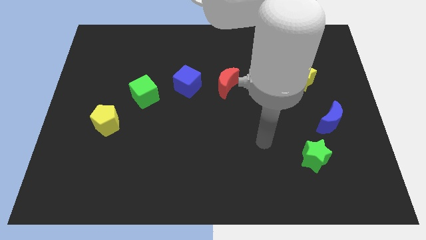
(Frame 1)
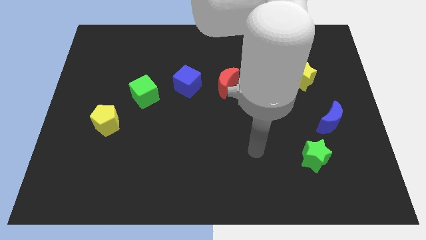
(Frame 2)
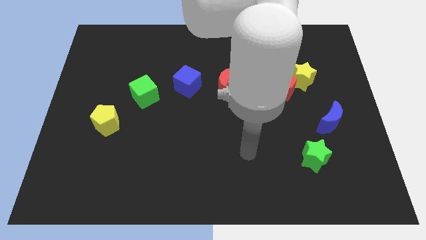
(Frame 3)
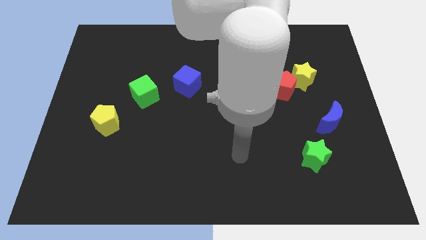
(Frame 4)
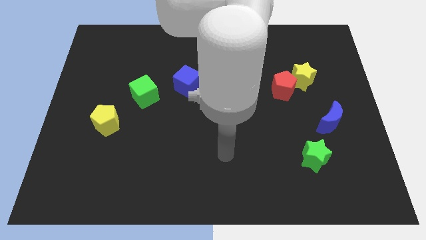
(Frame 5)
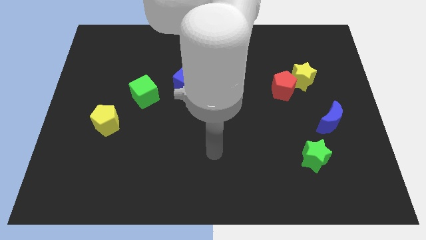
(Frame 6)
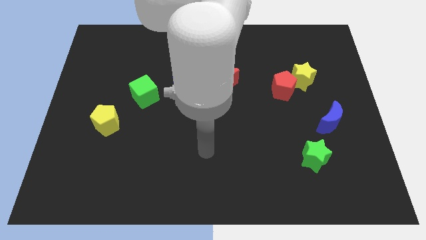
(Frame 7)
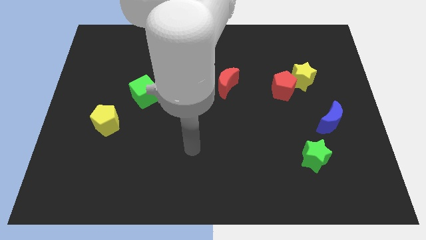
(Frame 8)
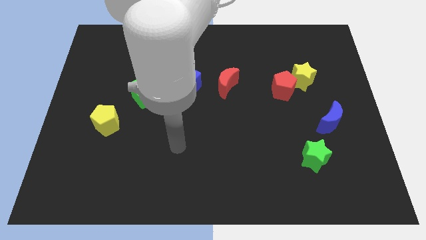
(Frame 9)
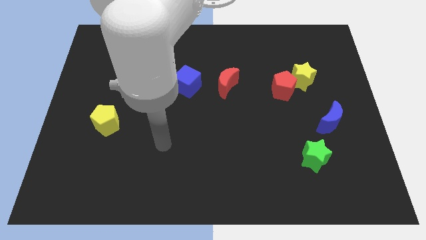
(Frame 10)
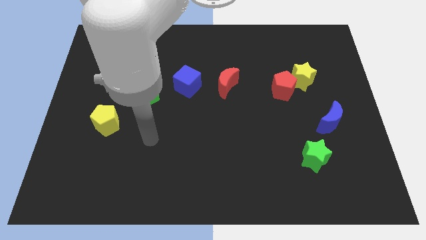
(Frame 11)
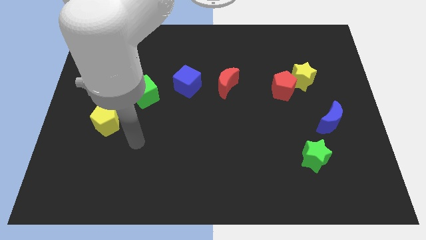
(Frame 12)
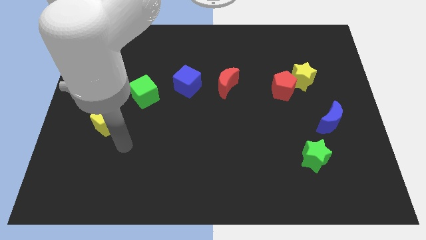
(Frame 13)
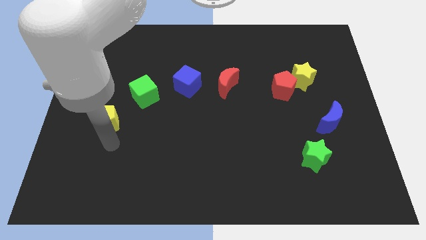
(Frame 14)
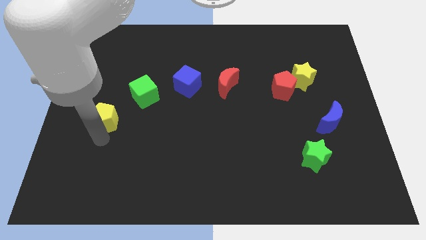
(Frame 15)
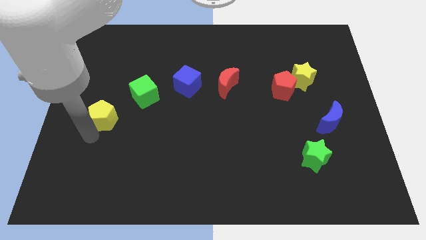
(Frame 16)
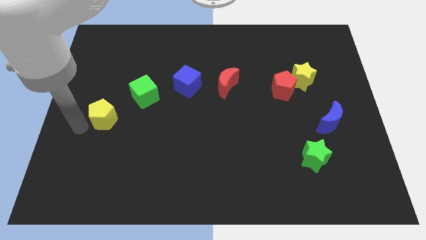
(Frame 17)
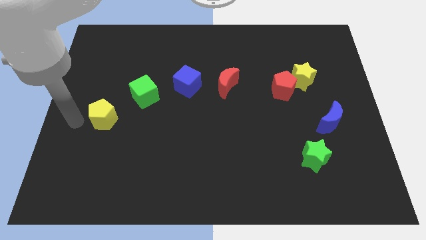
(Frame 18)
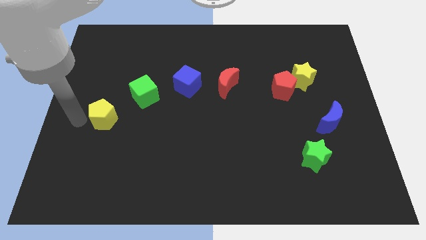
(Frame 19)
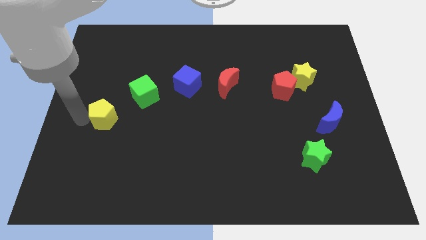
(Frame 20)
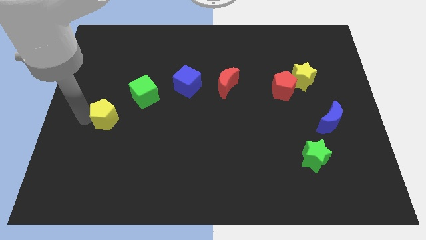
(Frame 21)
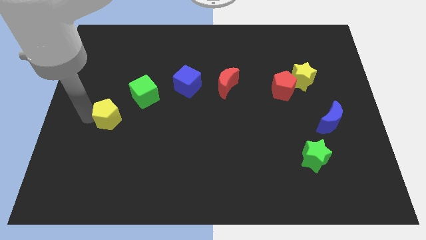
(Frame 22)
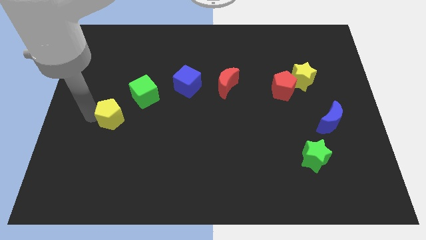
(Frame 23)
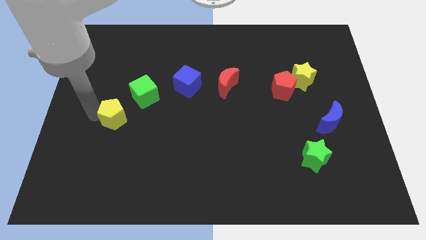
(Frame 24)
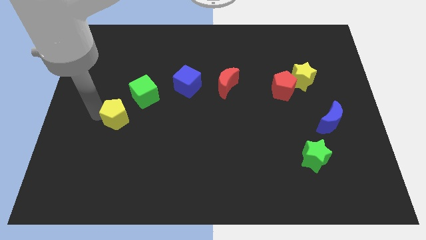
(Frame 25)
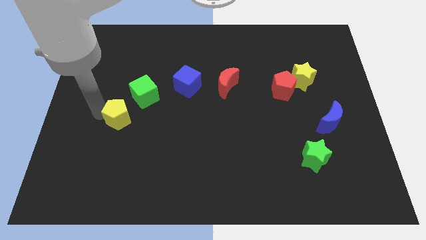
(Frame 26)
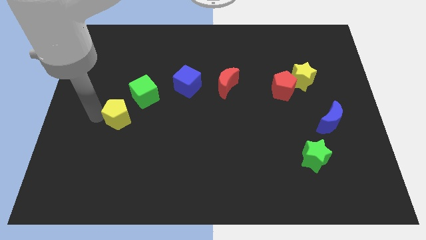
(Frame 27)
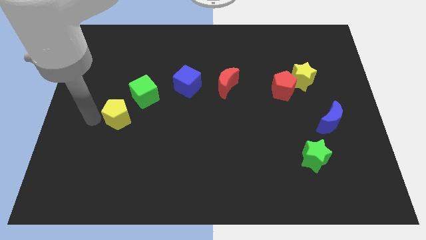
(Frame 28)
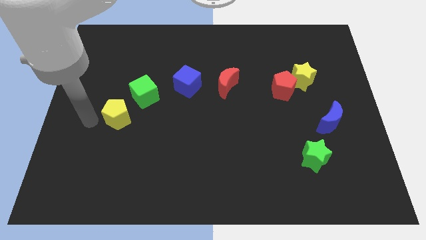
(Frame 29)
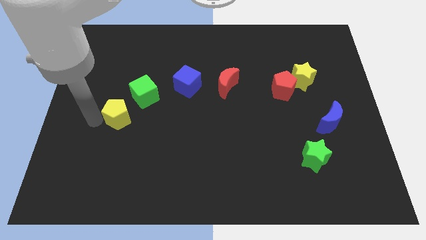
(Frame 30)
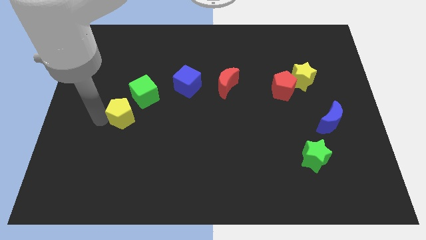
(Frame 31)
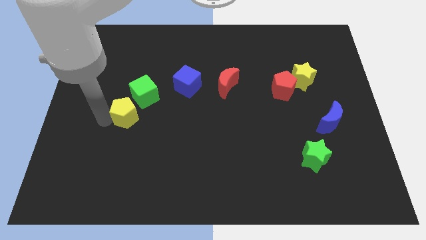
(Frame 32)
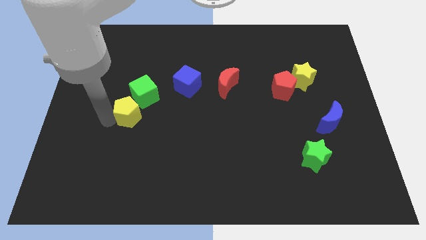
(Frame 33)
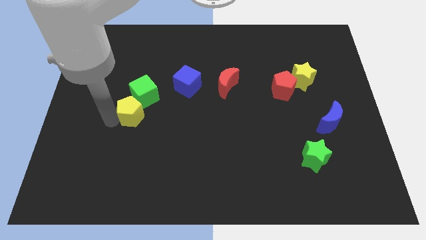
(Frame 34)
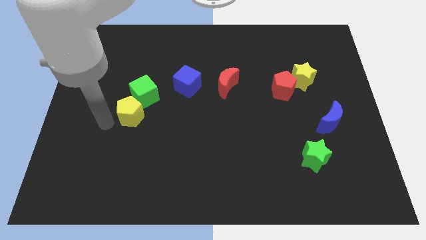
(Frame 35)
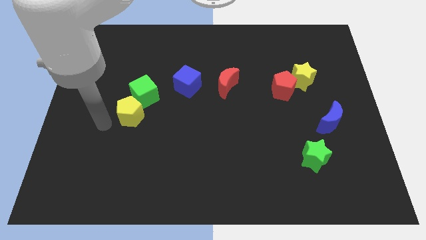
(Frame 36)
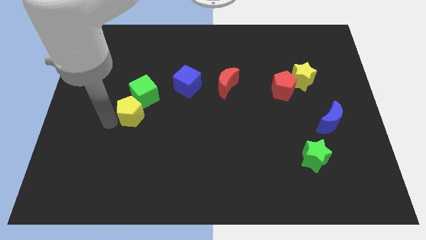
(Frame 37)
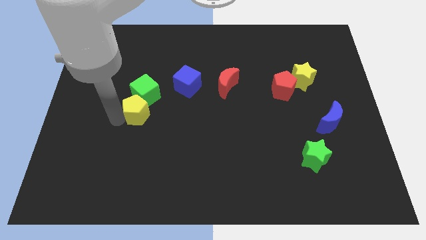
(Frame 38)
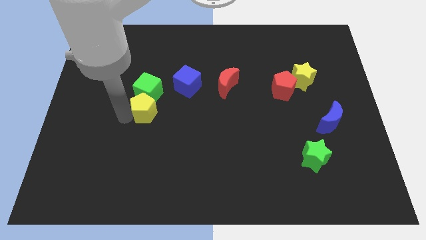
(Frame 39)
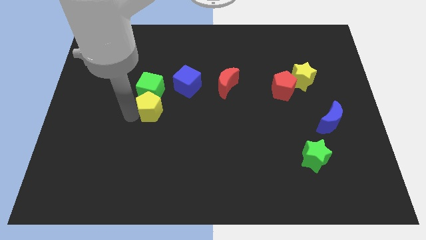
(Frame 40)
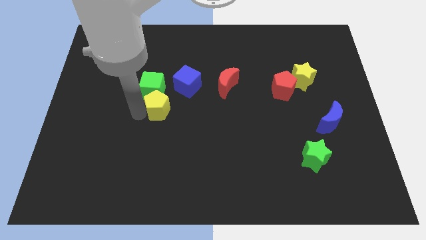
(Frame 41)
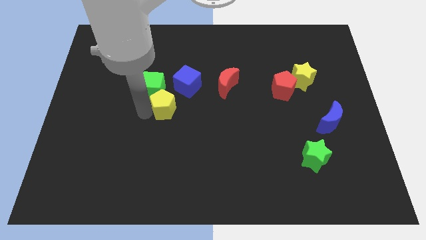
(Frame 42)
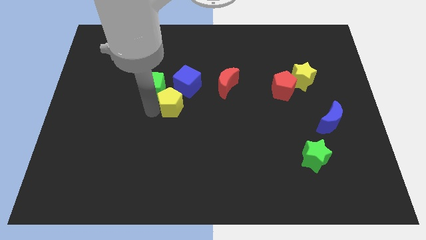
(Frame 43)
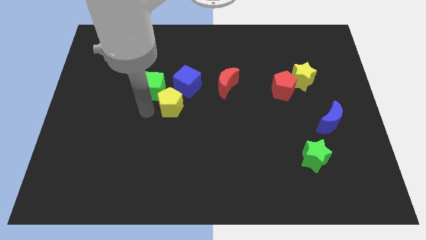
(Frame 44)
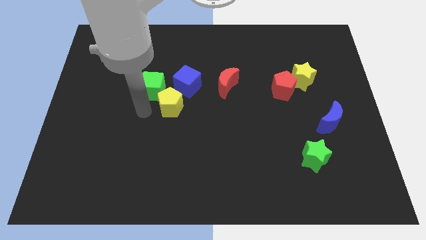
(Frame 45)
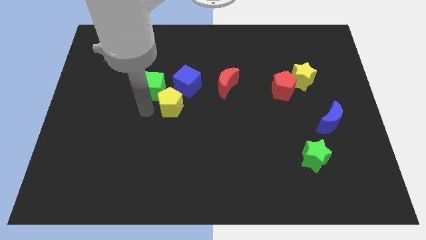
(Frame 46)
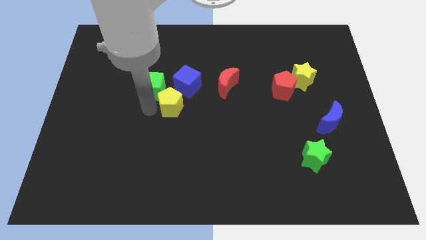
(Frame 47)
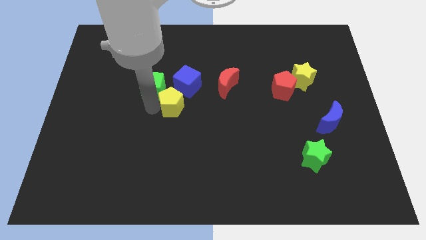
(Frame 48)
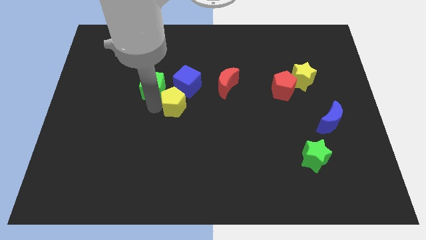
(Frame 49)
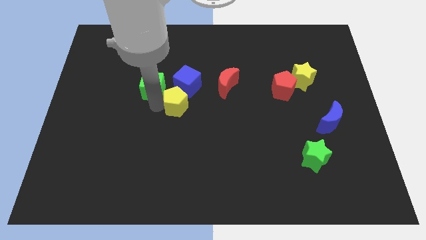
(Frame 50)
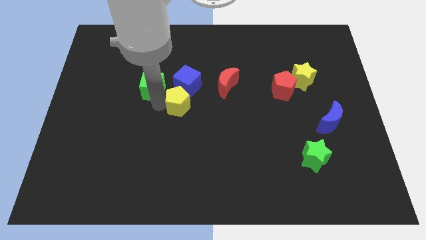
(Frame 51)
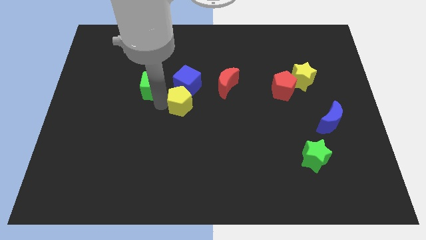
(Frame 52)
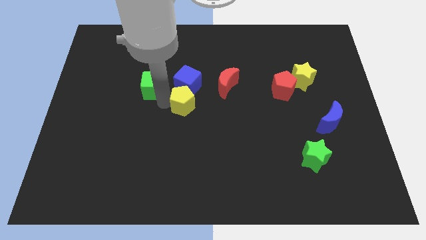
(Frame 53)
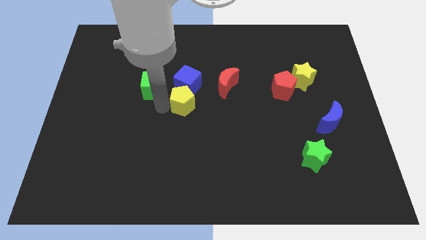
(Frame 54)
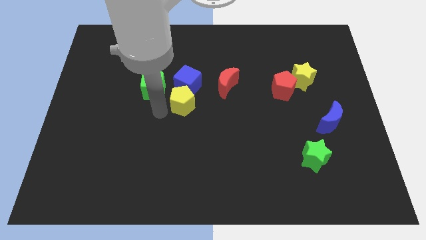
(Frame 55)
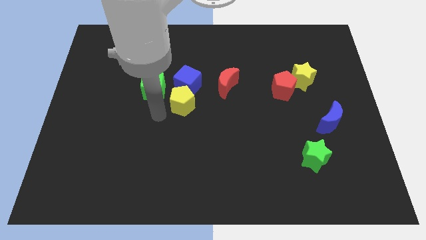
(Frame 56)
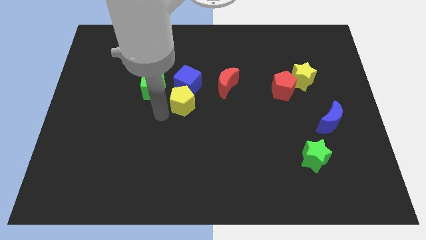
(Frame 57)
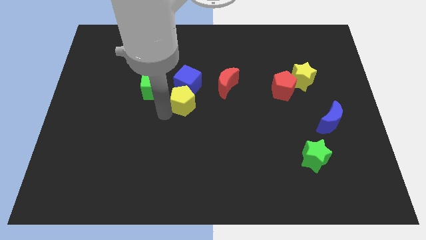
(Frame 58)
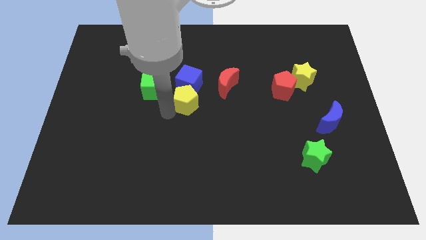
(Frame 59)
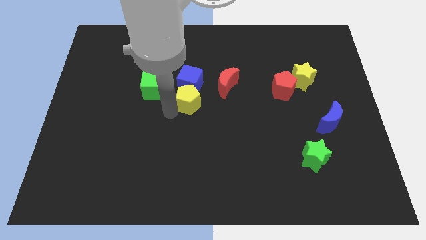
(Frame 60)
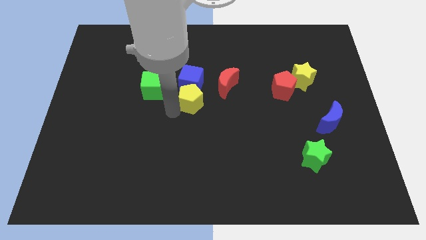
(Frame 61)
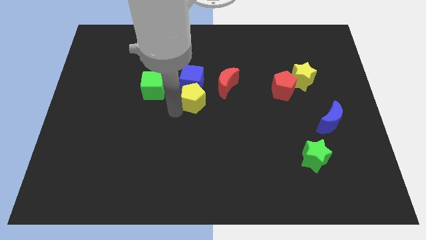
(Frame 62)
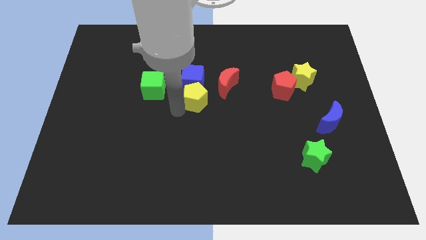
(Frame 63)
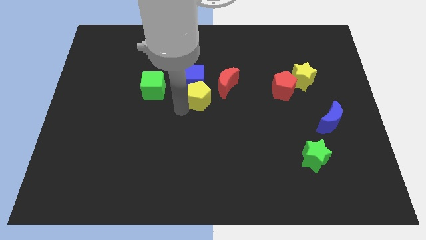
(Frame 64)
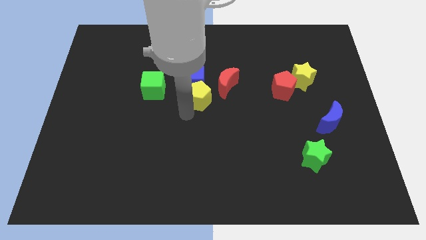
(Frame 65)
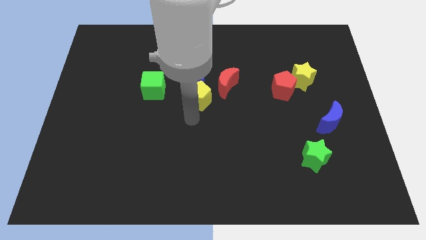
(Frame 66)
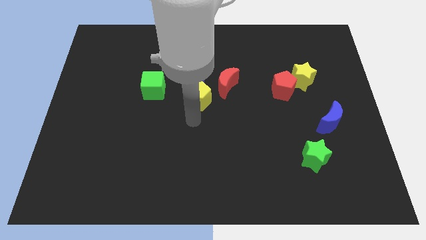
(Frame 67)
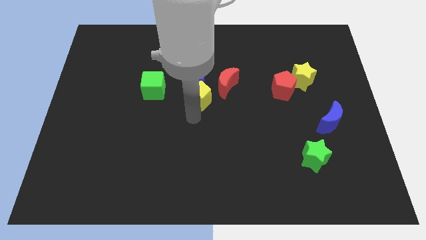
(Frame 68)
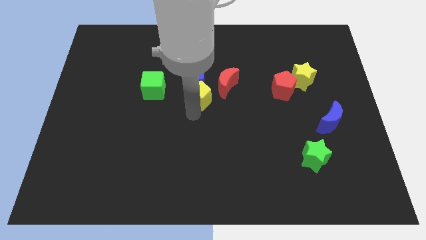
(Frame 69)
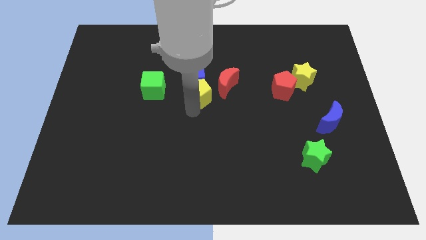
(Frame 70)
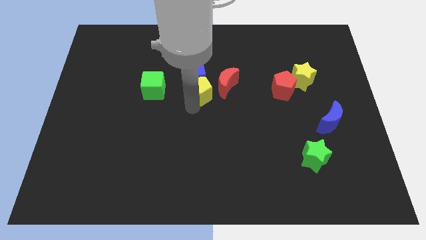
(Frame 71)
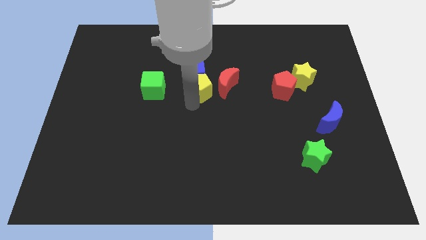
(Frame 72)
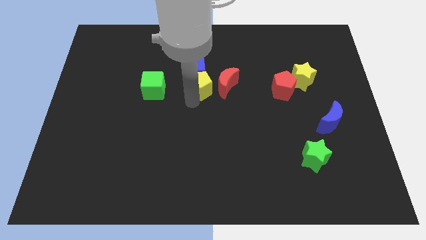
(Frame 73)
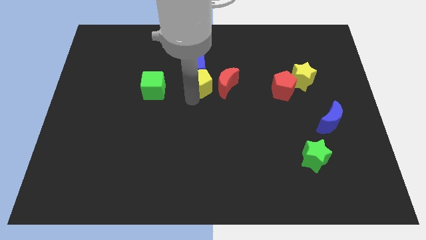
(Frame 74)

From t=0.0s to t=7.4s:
push the yellow pentagon to the top left side of the red moon

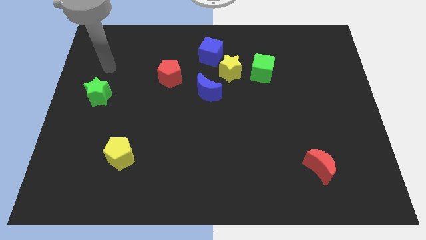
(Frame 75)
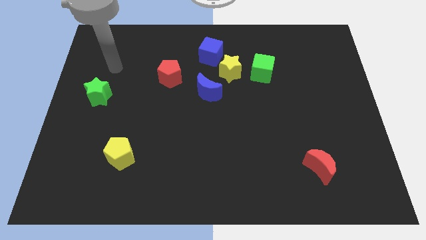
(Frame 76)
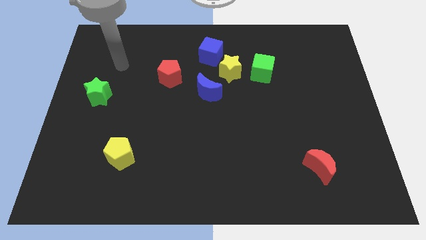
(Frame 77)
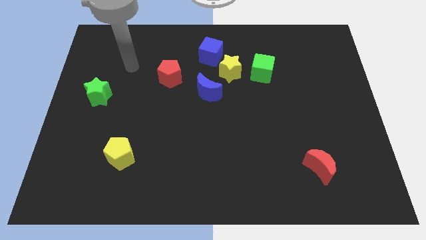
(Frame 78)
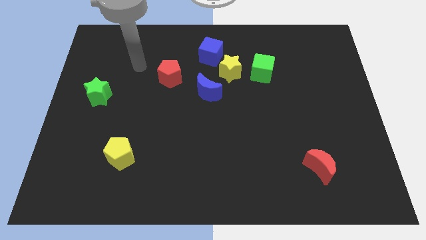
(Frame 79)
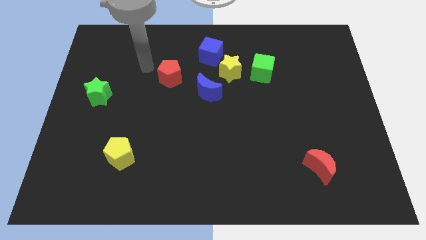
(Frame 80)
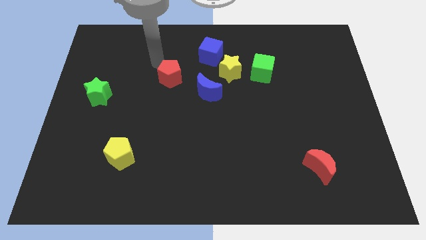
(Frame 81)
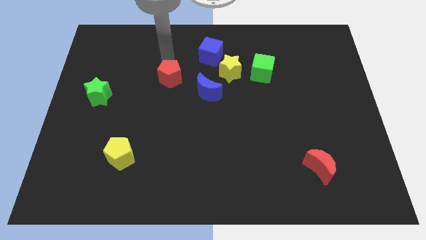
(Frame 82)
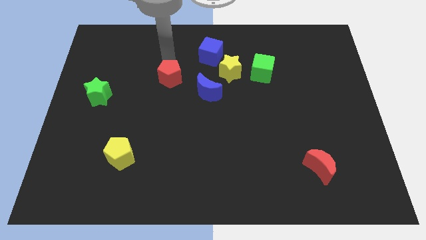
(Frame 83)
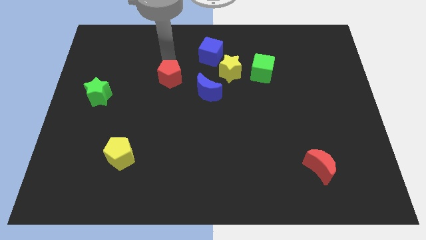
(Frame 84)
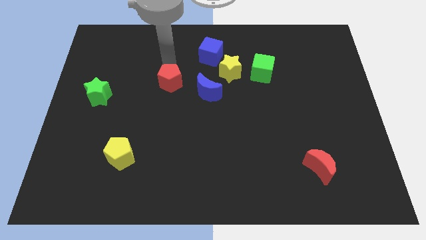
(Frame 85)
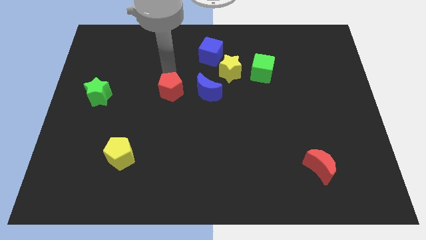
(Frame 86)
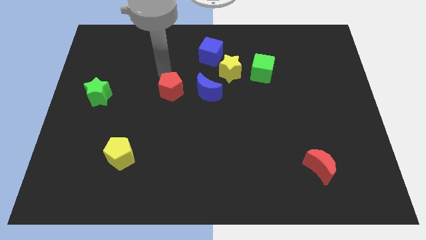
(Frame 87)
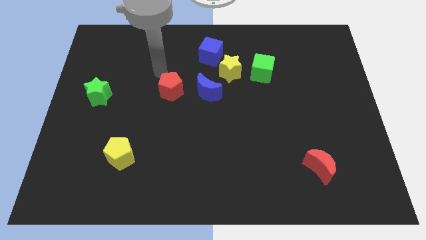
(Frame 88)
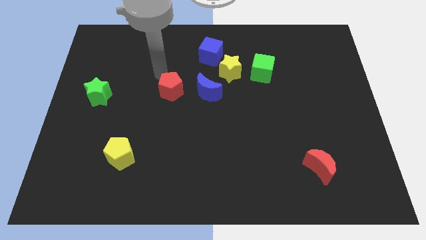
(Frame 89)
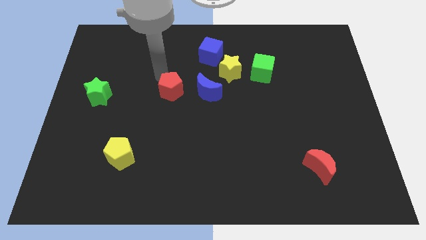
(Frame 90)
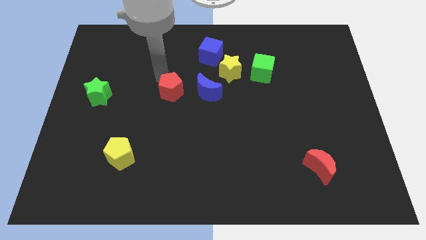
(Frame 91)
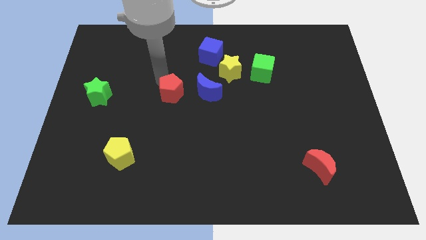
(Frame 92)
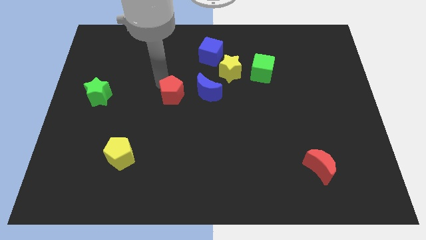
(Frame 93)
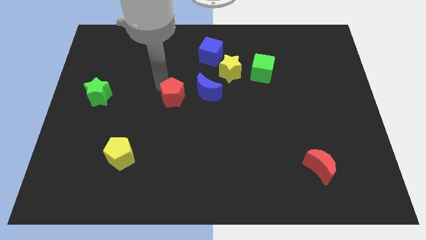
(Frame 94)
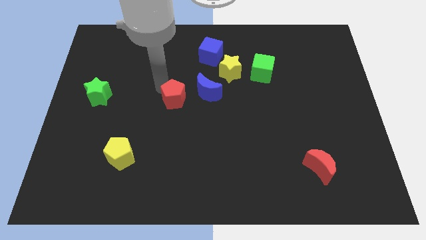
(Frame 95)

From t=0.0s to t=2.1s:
slide the red pentagon to the bottom left side of the blue moon
